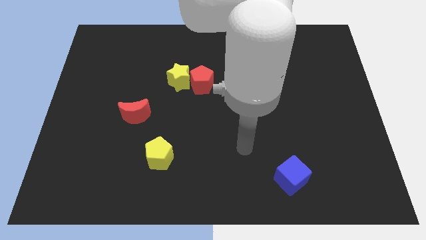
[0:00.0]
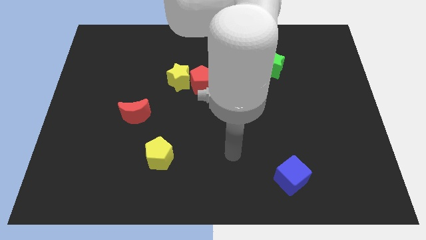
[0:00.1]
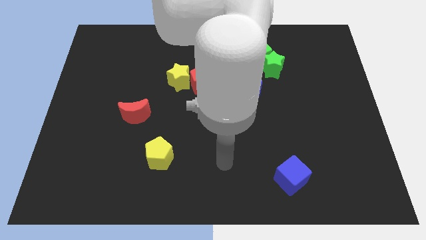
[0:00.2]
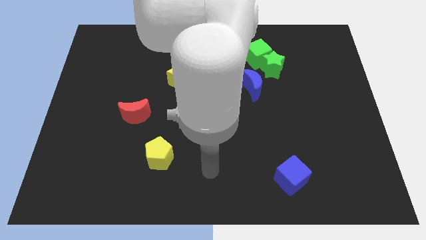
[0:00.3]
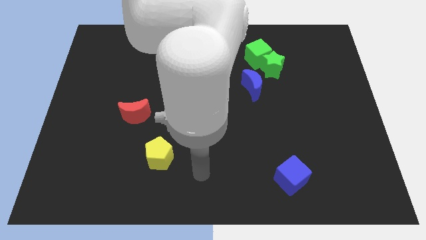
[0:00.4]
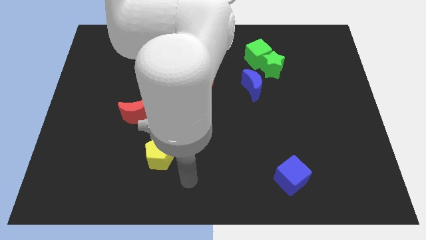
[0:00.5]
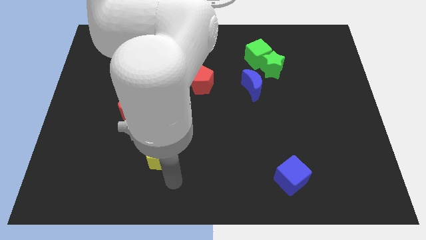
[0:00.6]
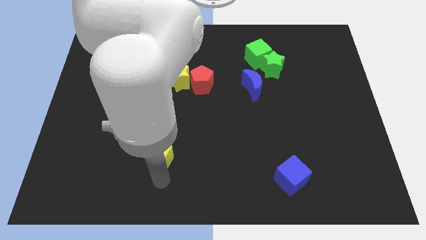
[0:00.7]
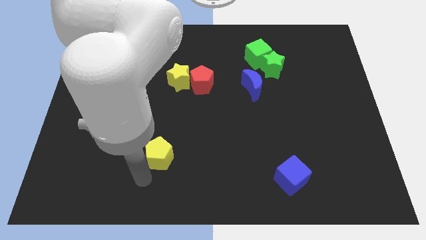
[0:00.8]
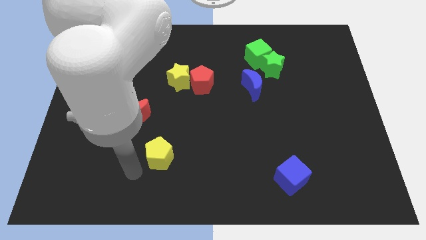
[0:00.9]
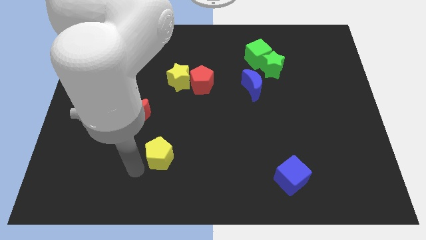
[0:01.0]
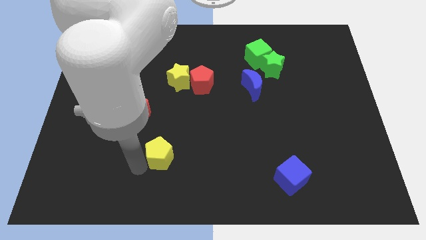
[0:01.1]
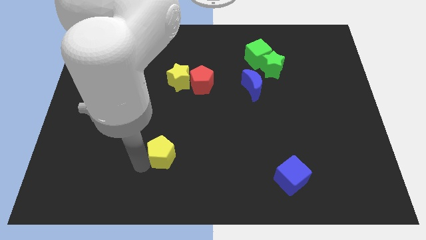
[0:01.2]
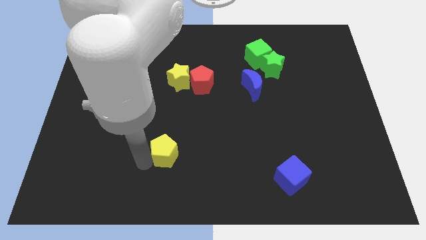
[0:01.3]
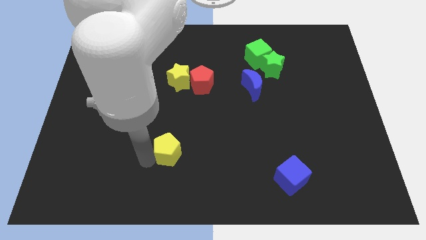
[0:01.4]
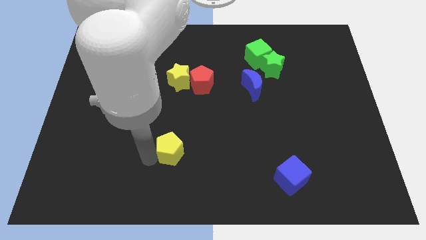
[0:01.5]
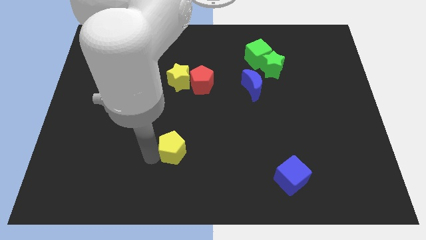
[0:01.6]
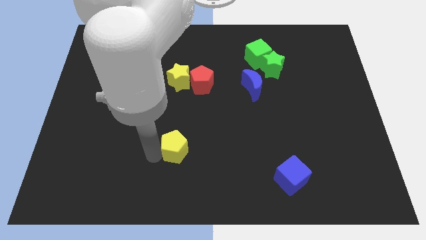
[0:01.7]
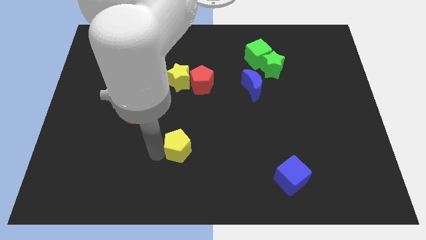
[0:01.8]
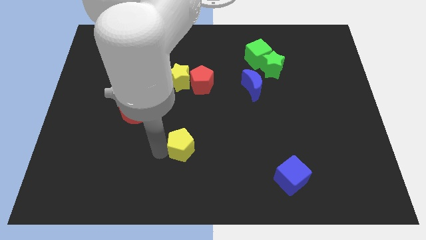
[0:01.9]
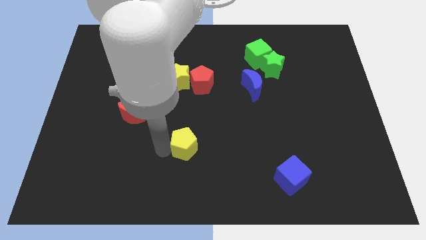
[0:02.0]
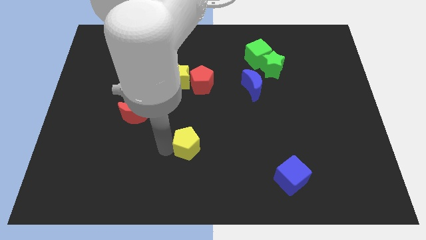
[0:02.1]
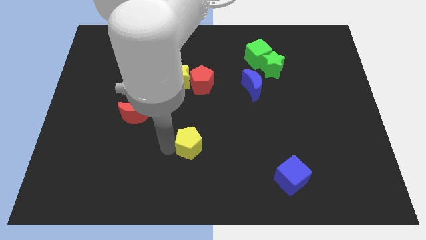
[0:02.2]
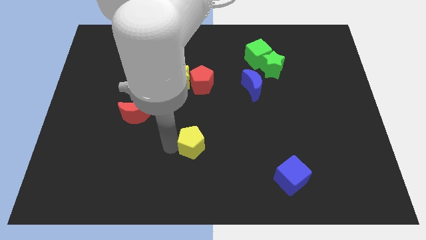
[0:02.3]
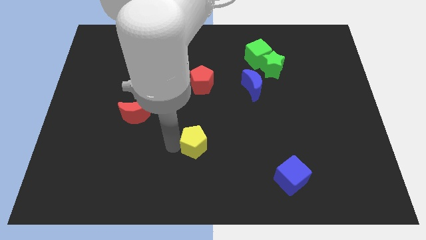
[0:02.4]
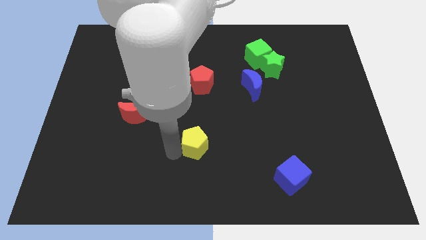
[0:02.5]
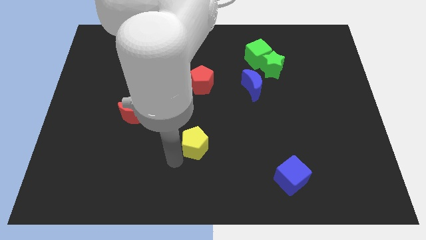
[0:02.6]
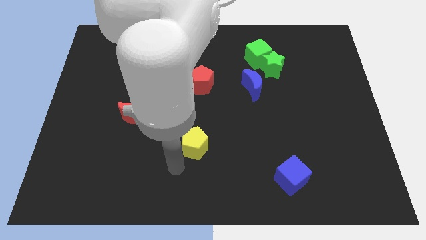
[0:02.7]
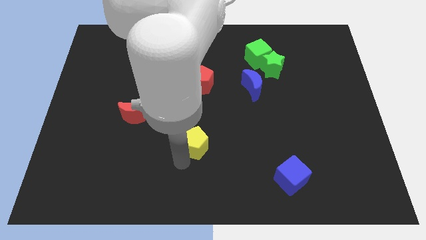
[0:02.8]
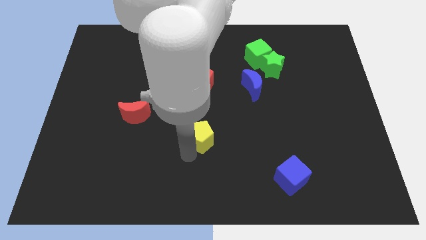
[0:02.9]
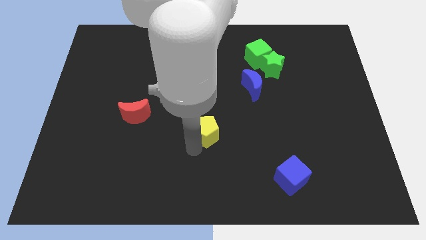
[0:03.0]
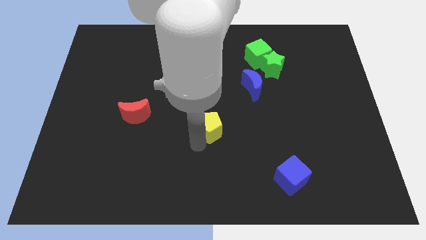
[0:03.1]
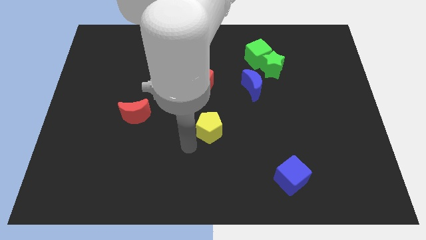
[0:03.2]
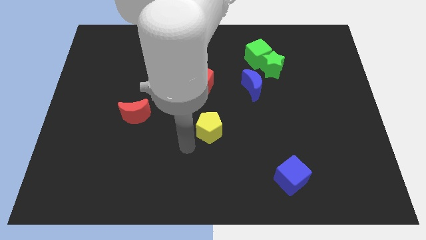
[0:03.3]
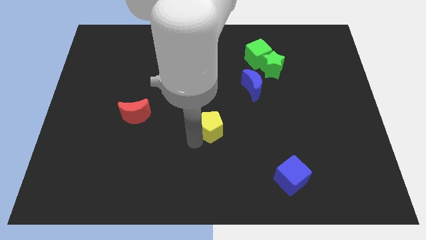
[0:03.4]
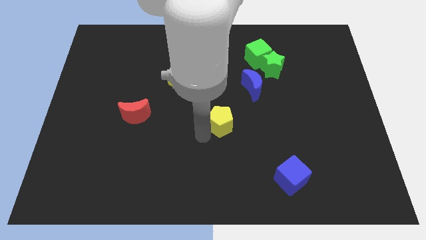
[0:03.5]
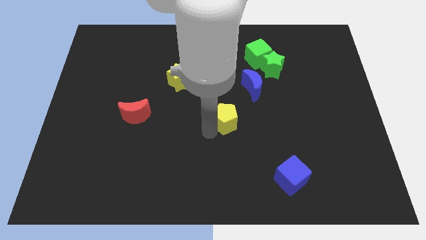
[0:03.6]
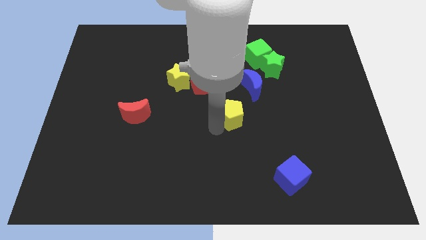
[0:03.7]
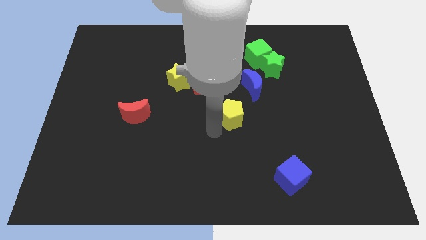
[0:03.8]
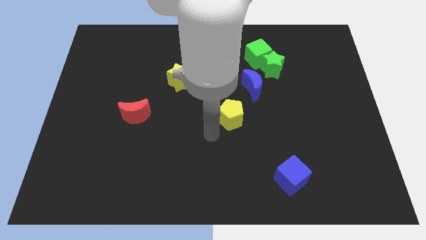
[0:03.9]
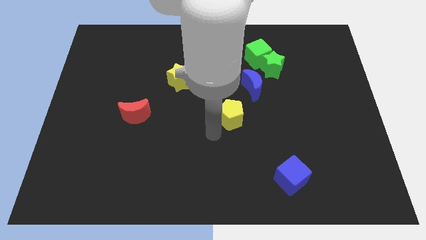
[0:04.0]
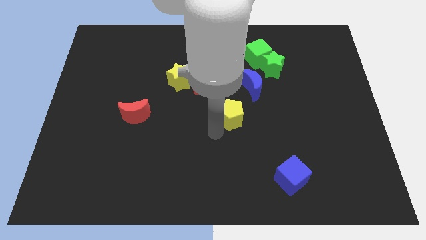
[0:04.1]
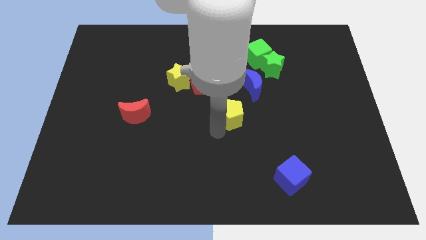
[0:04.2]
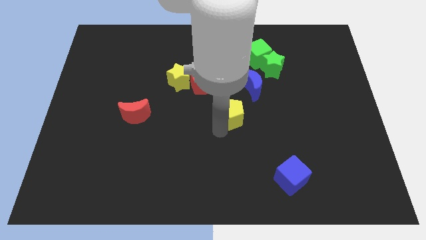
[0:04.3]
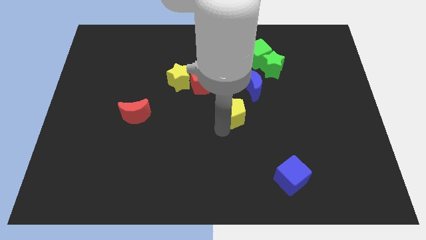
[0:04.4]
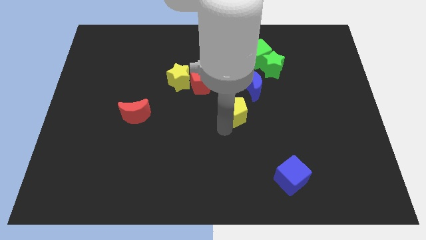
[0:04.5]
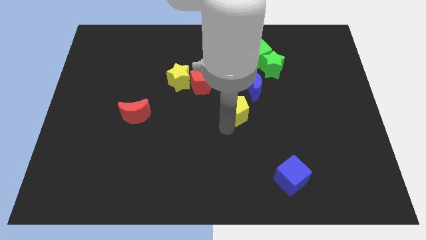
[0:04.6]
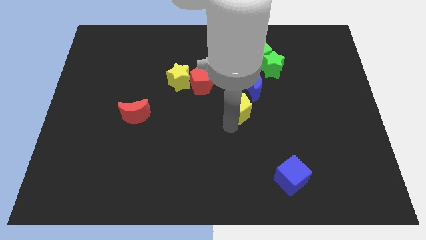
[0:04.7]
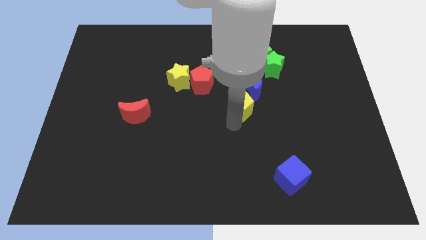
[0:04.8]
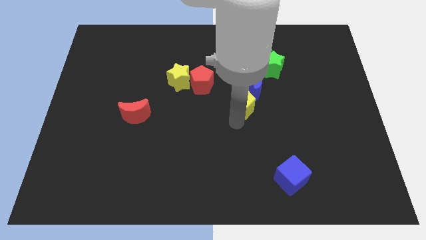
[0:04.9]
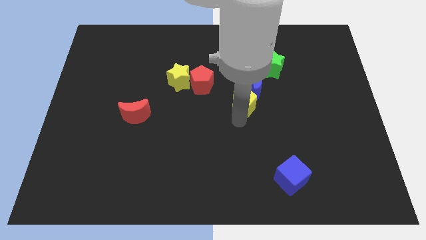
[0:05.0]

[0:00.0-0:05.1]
move the yellow pentagon close to the blue moon

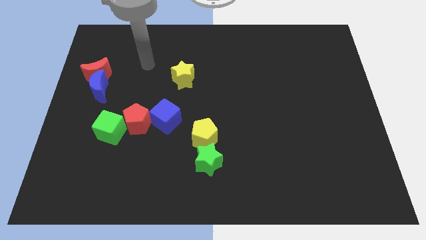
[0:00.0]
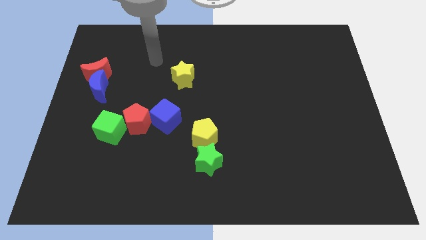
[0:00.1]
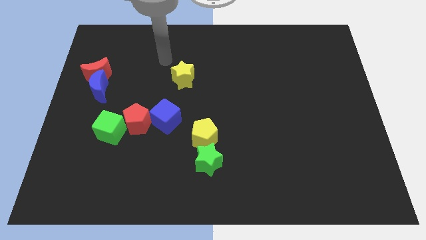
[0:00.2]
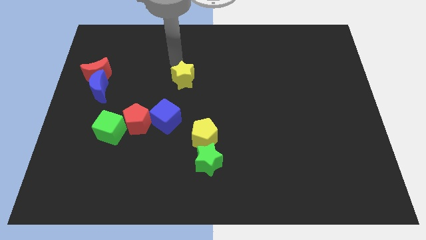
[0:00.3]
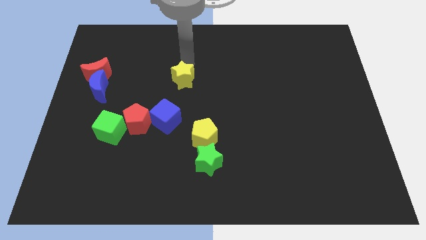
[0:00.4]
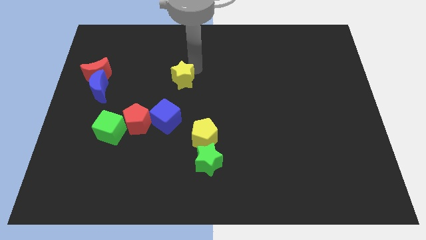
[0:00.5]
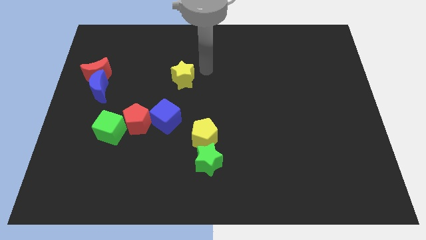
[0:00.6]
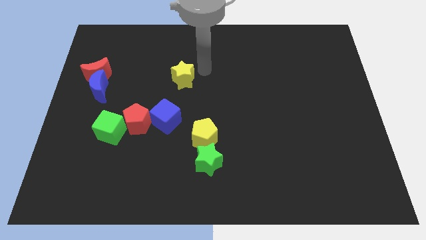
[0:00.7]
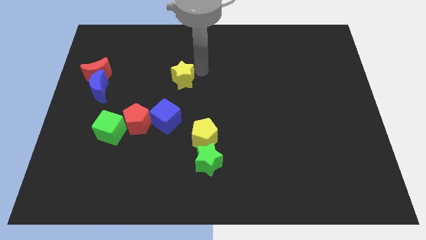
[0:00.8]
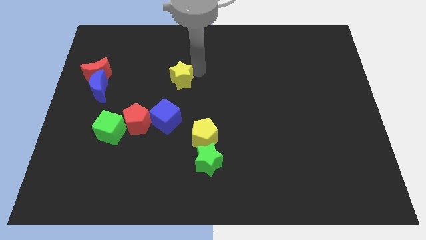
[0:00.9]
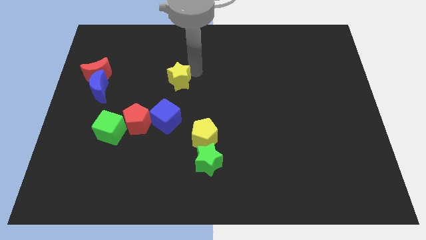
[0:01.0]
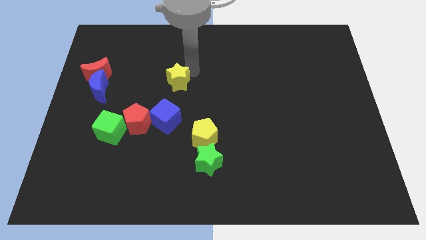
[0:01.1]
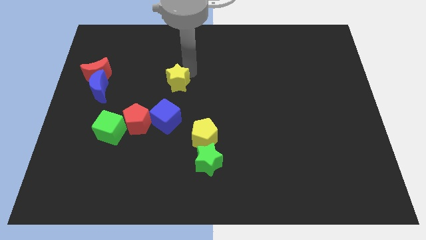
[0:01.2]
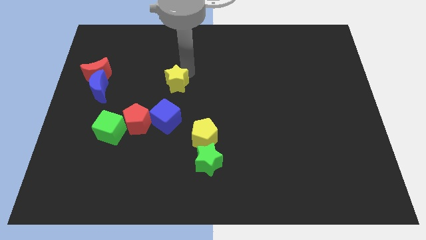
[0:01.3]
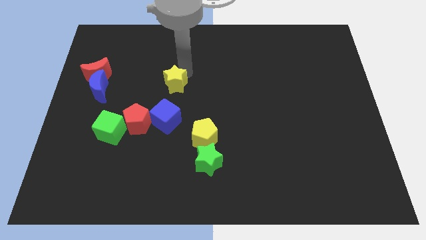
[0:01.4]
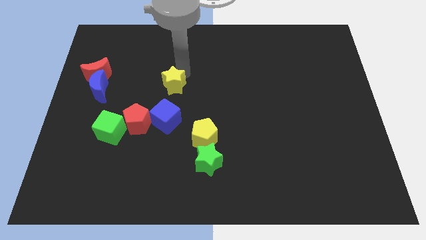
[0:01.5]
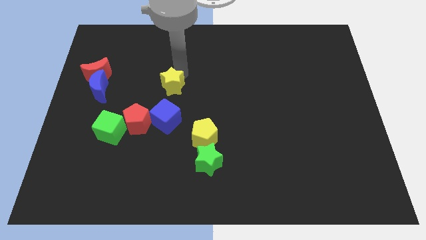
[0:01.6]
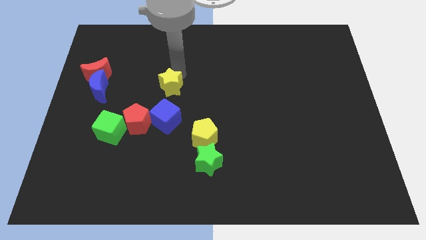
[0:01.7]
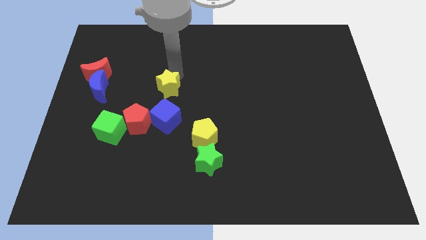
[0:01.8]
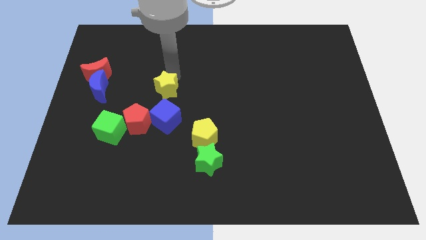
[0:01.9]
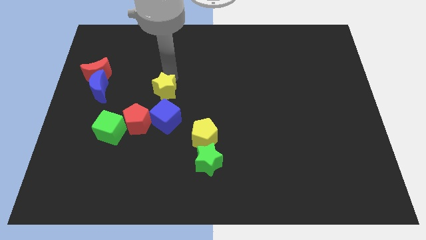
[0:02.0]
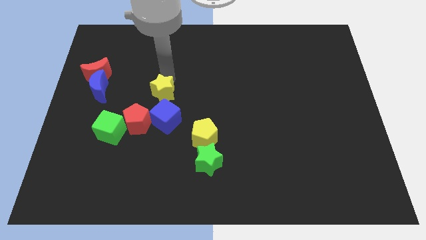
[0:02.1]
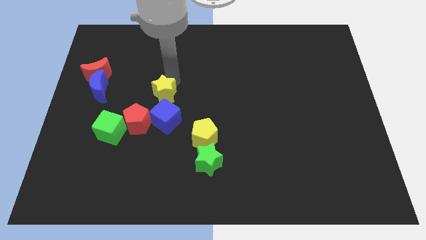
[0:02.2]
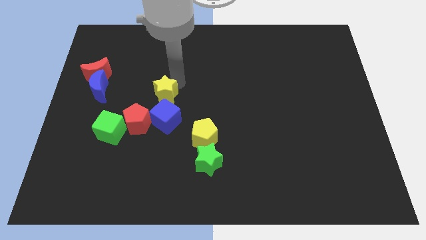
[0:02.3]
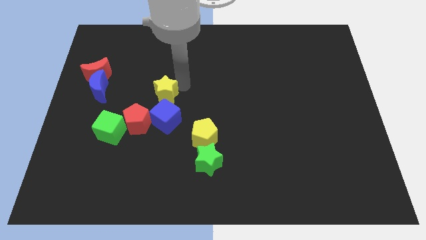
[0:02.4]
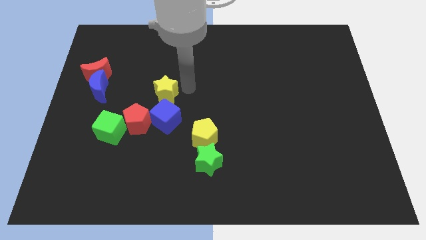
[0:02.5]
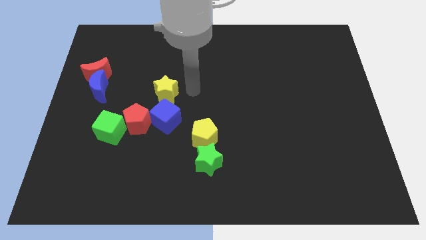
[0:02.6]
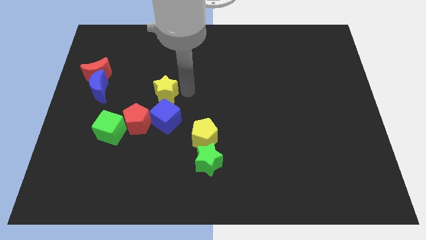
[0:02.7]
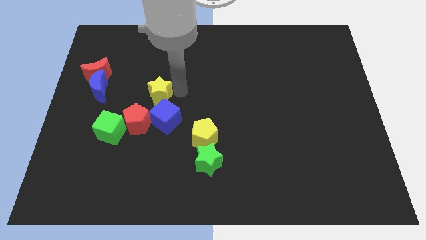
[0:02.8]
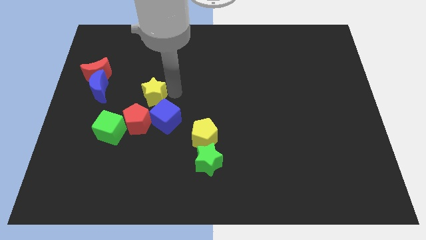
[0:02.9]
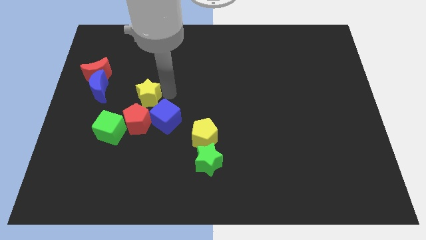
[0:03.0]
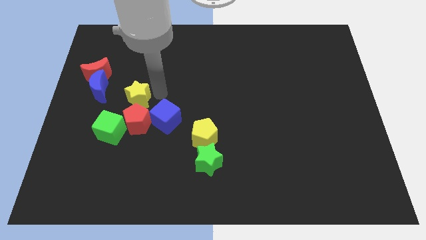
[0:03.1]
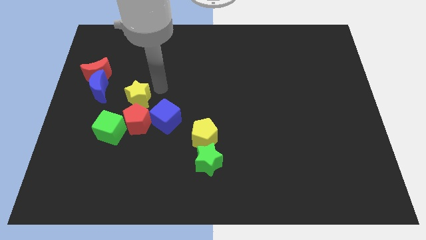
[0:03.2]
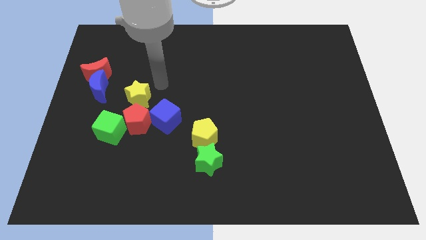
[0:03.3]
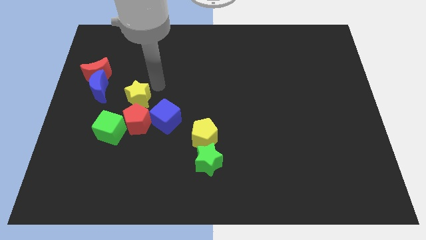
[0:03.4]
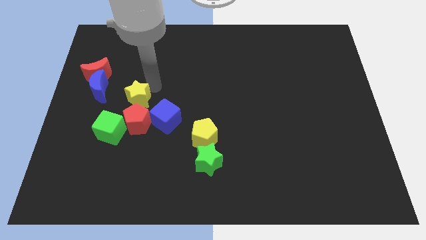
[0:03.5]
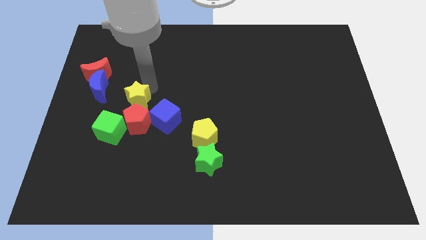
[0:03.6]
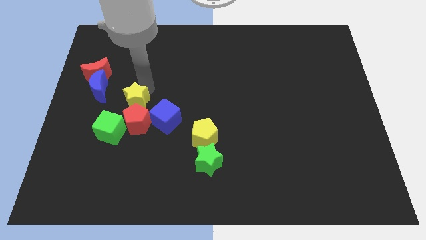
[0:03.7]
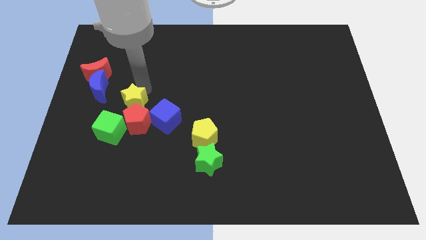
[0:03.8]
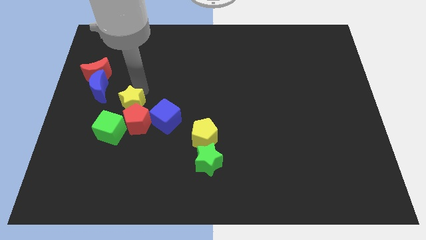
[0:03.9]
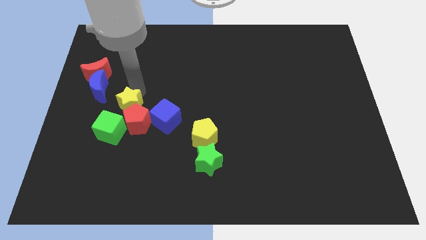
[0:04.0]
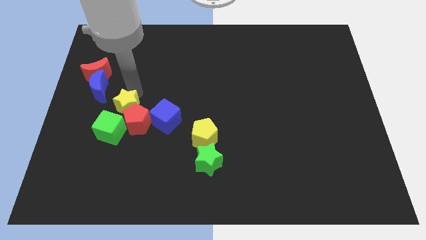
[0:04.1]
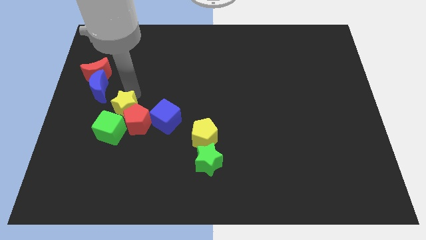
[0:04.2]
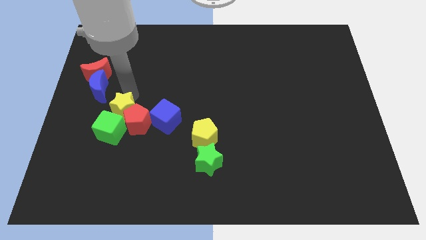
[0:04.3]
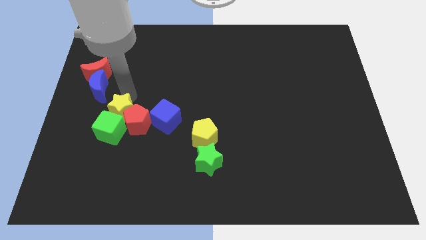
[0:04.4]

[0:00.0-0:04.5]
push the yellow star to the green cube
